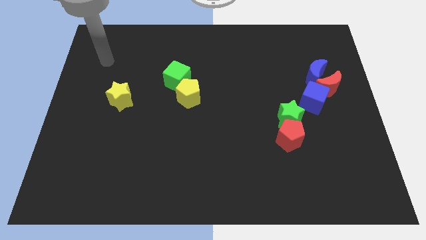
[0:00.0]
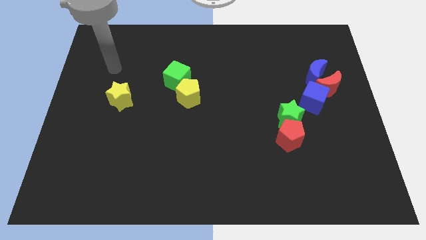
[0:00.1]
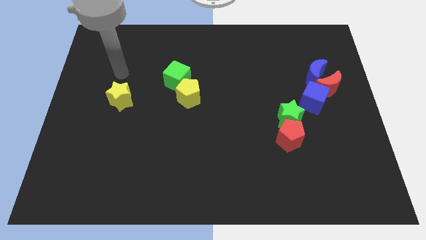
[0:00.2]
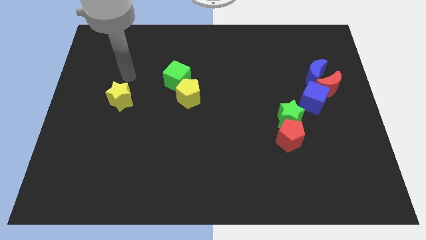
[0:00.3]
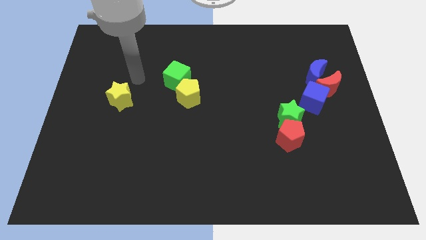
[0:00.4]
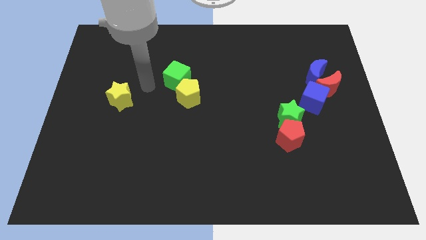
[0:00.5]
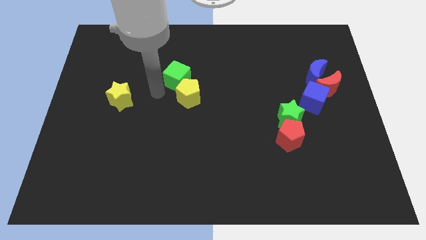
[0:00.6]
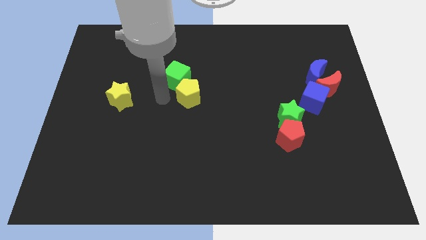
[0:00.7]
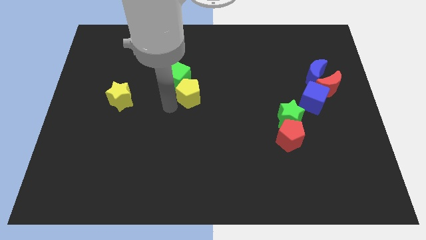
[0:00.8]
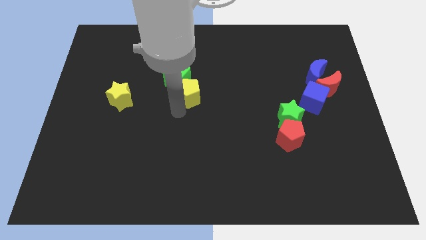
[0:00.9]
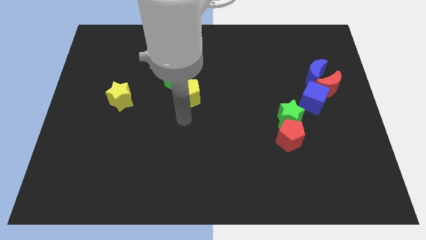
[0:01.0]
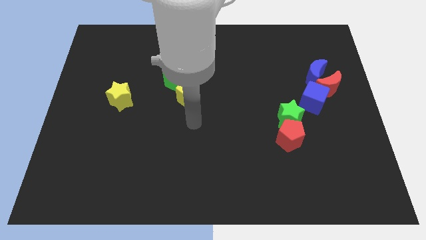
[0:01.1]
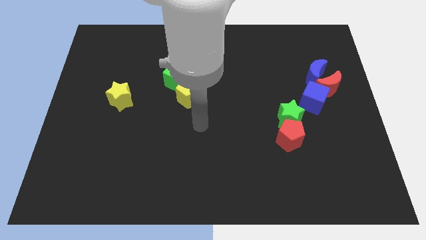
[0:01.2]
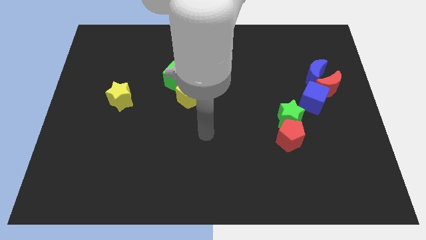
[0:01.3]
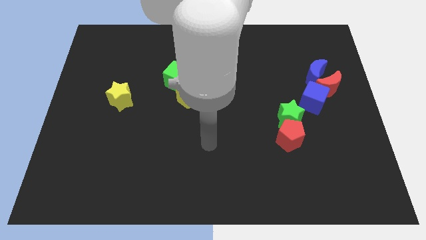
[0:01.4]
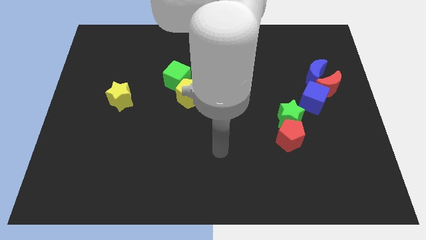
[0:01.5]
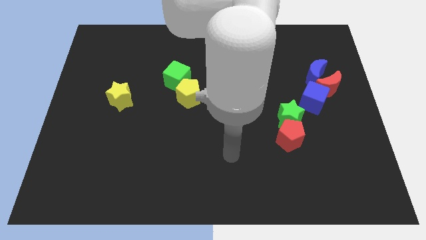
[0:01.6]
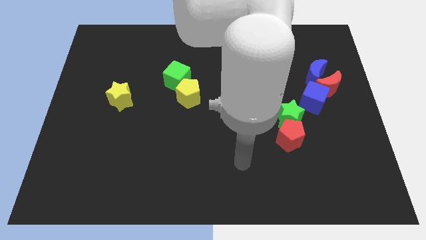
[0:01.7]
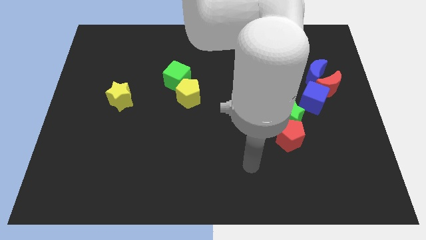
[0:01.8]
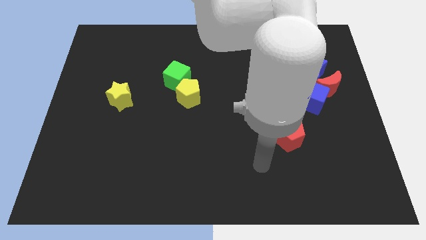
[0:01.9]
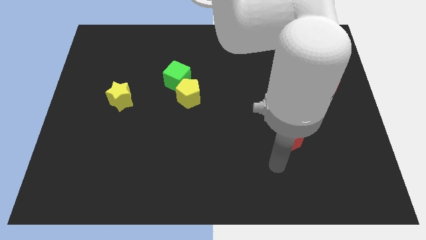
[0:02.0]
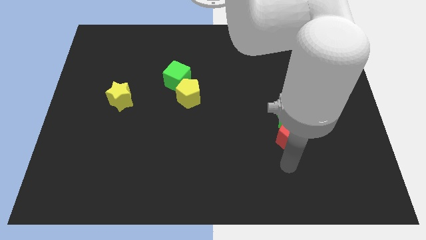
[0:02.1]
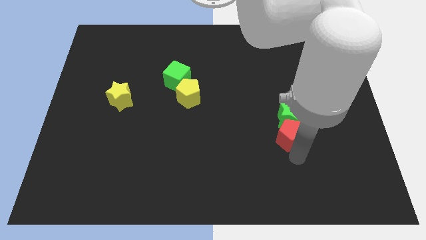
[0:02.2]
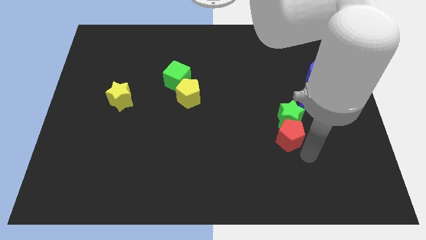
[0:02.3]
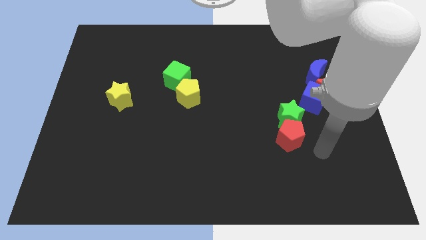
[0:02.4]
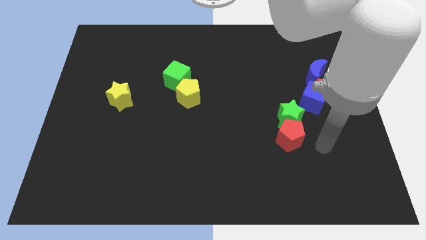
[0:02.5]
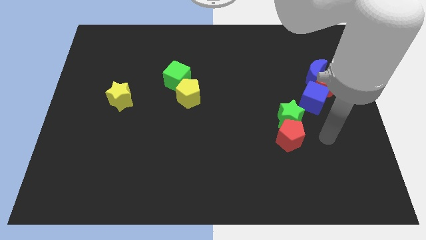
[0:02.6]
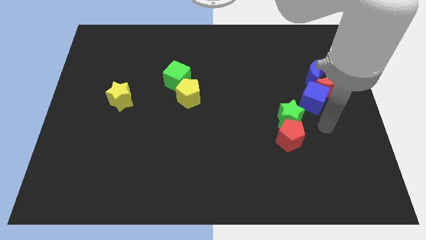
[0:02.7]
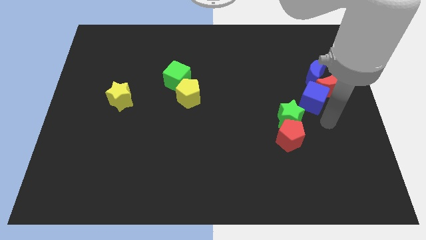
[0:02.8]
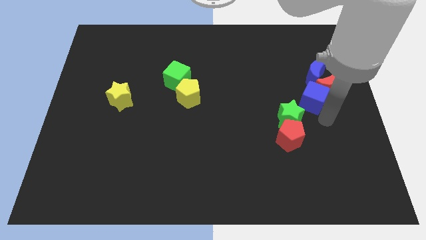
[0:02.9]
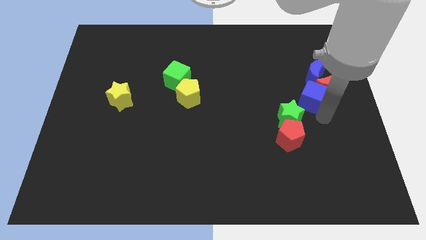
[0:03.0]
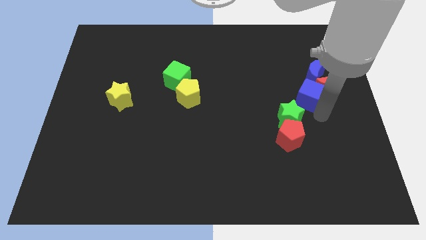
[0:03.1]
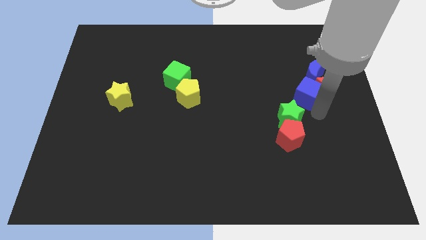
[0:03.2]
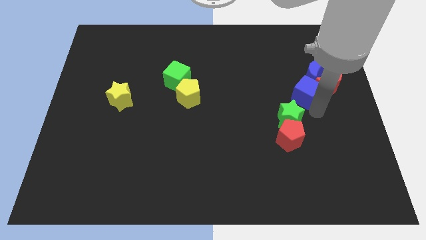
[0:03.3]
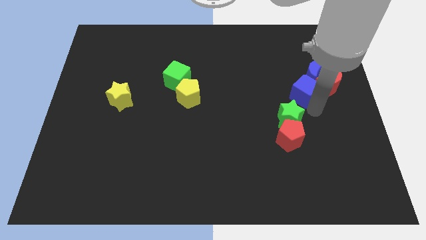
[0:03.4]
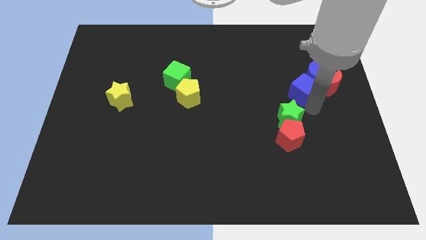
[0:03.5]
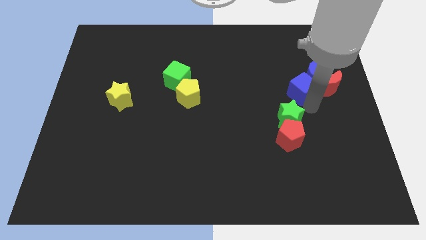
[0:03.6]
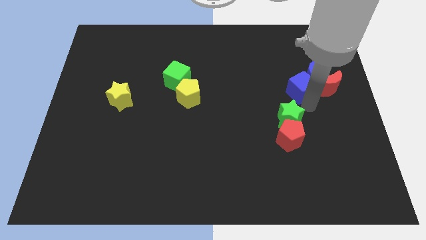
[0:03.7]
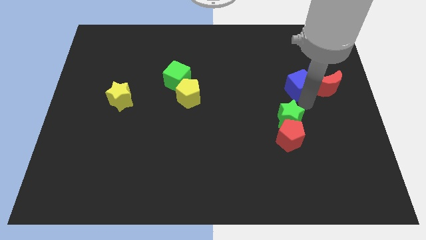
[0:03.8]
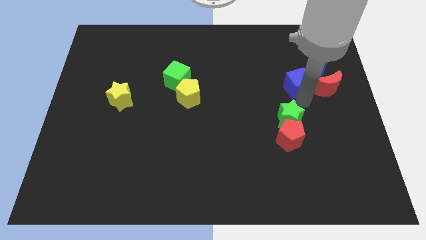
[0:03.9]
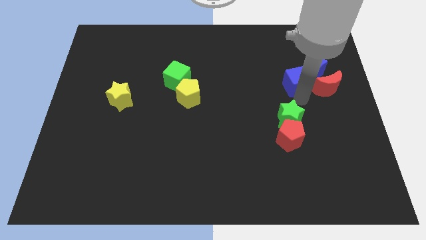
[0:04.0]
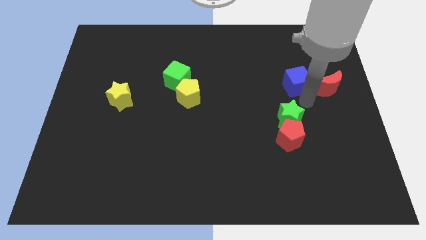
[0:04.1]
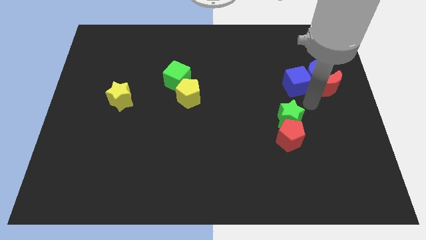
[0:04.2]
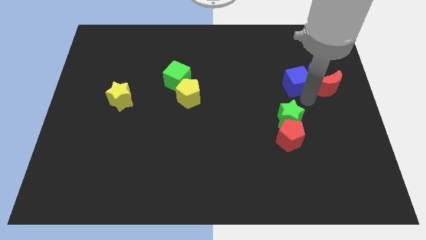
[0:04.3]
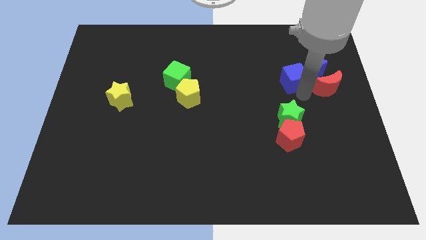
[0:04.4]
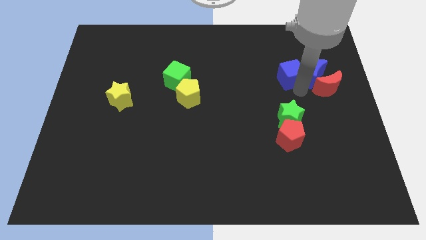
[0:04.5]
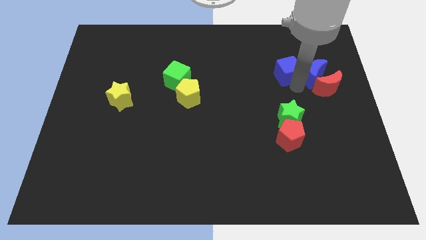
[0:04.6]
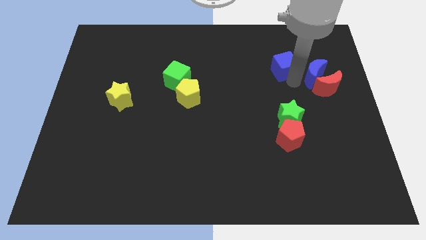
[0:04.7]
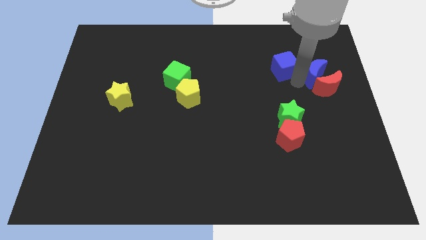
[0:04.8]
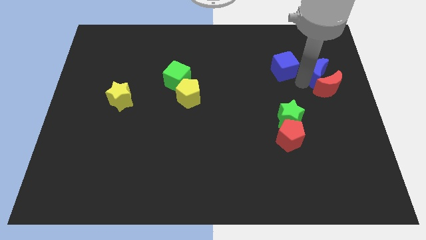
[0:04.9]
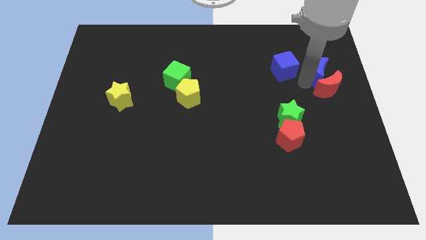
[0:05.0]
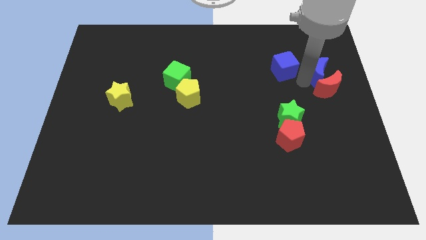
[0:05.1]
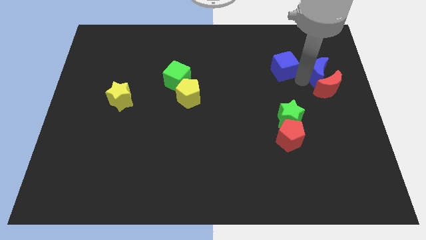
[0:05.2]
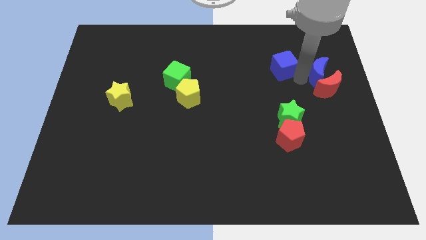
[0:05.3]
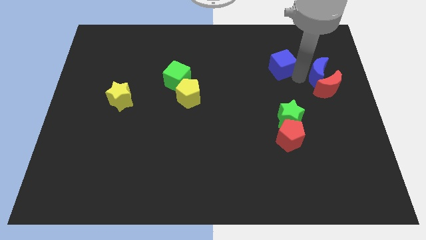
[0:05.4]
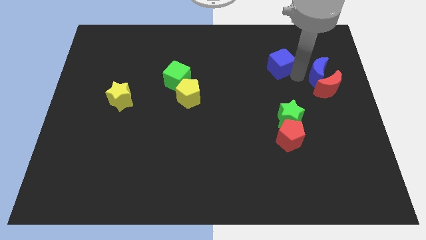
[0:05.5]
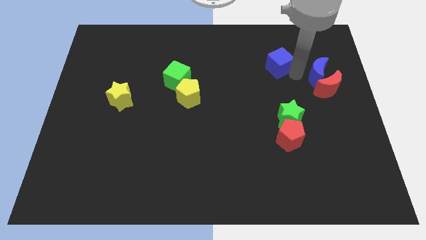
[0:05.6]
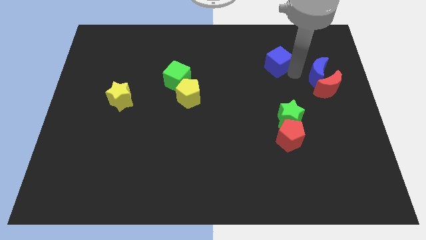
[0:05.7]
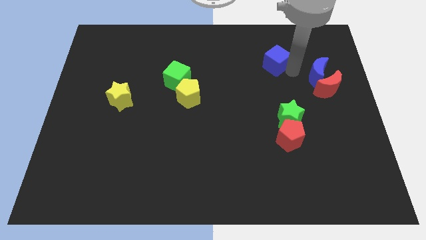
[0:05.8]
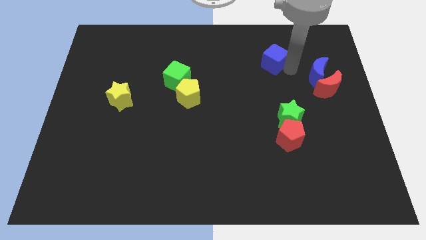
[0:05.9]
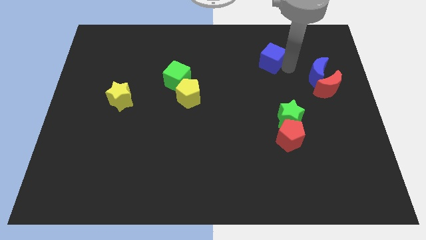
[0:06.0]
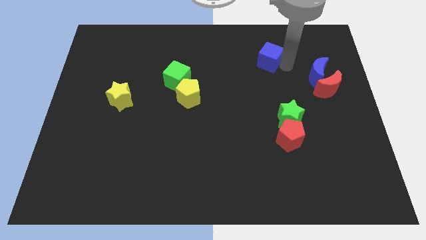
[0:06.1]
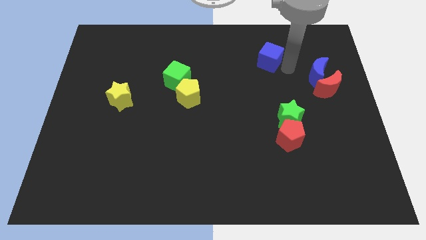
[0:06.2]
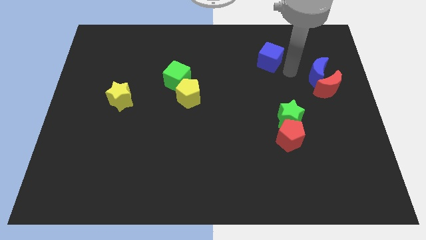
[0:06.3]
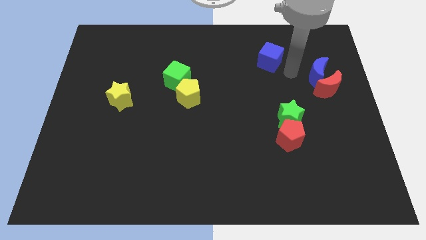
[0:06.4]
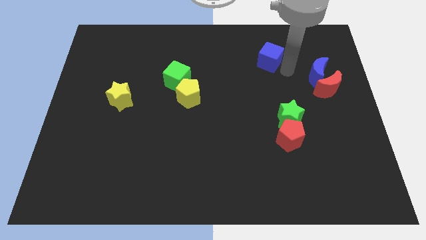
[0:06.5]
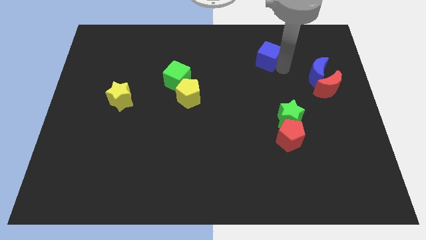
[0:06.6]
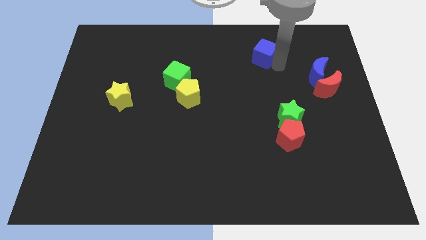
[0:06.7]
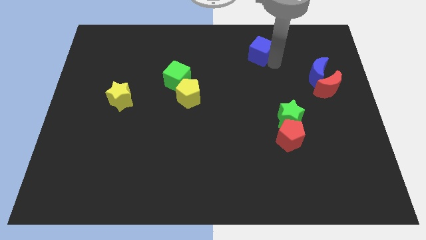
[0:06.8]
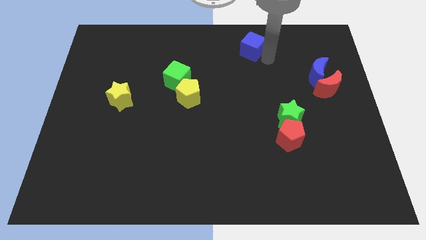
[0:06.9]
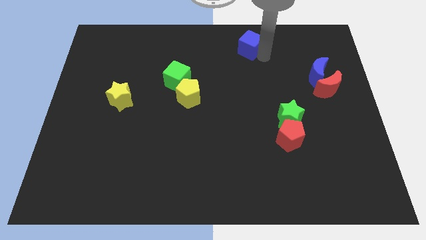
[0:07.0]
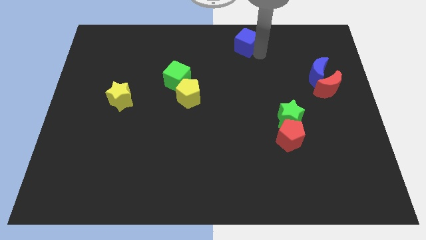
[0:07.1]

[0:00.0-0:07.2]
put the blue cube to the top

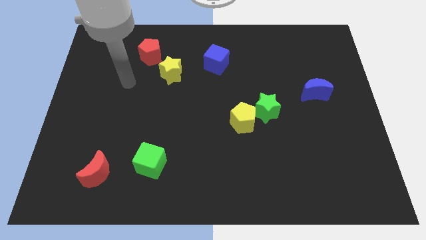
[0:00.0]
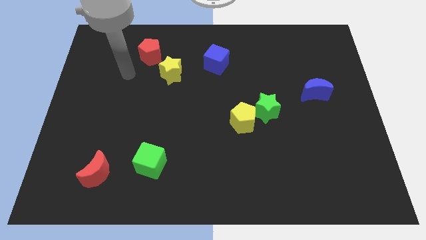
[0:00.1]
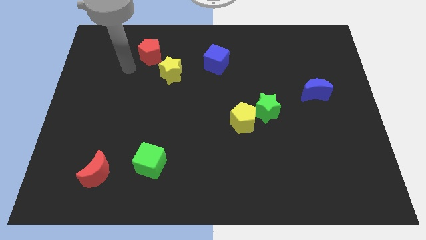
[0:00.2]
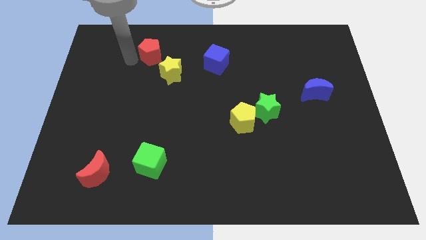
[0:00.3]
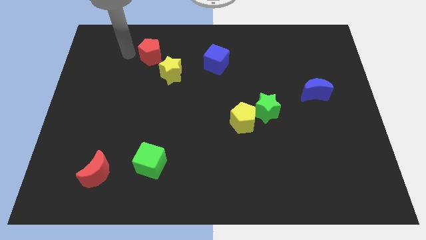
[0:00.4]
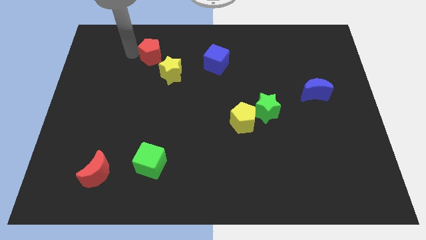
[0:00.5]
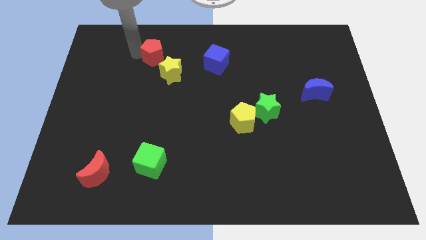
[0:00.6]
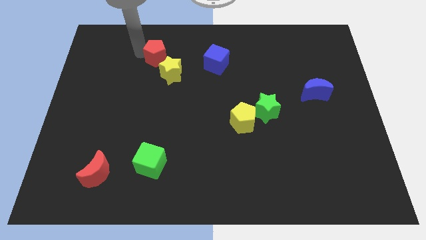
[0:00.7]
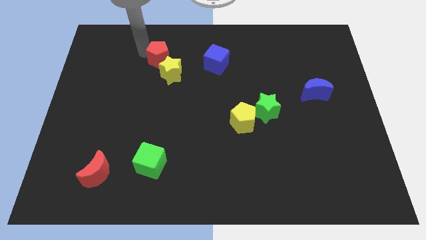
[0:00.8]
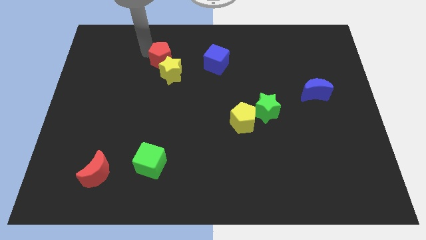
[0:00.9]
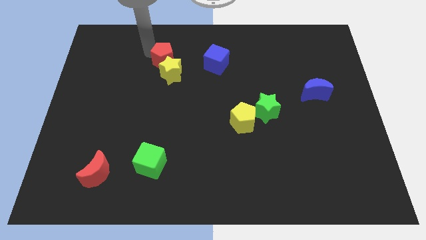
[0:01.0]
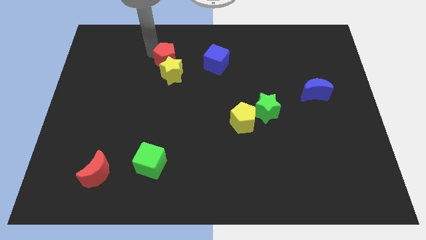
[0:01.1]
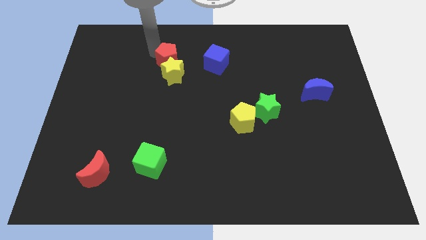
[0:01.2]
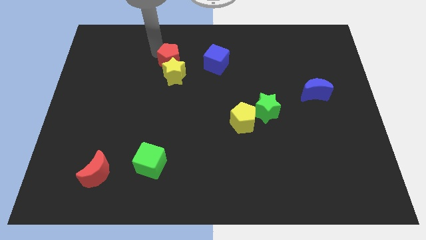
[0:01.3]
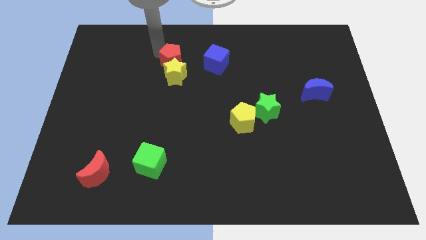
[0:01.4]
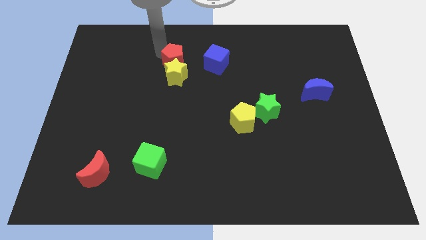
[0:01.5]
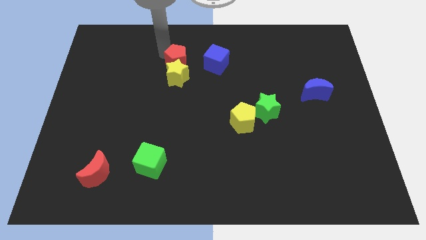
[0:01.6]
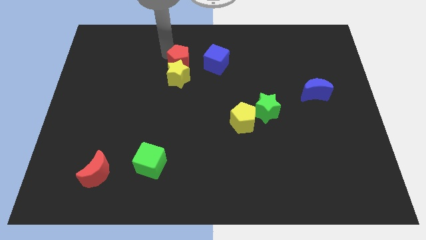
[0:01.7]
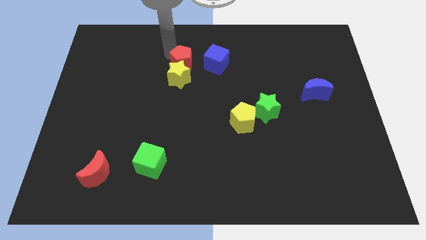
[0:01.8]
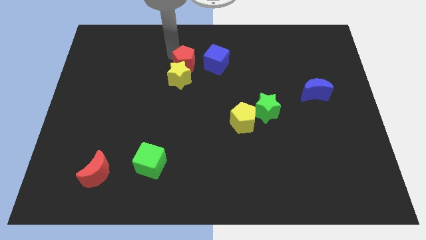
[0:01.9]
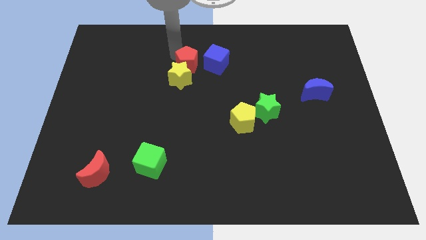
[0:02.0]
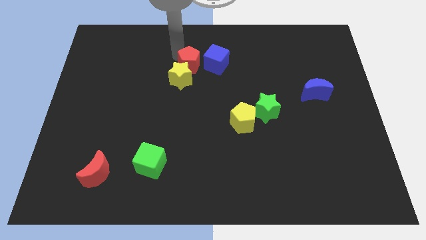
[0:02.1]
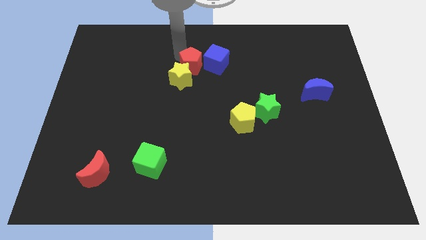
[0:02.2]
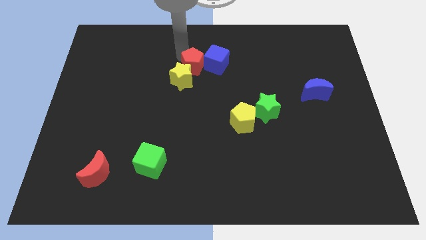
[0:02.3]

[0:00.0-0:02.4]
move the red pentagon to the middle
